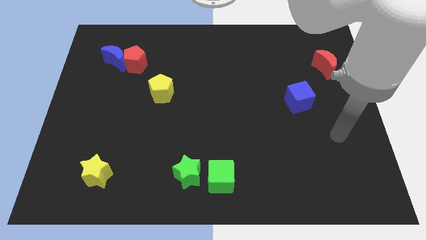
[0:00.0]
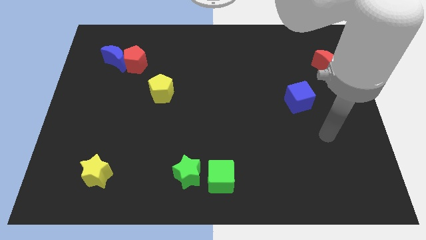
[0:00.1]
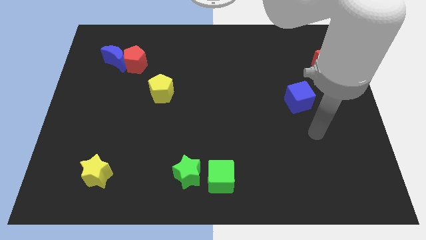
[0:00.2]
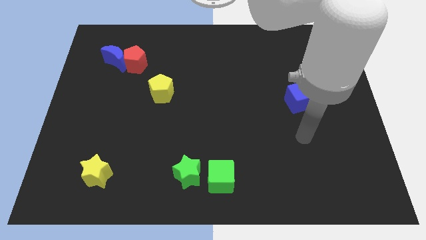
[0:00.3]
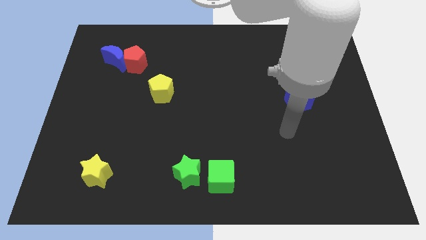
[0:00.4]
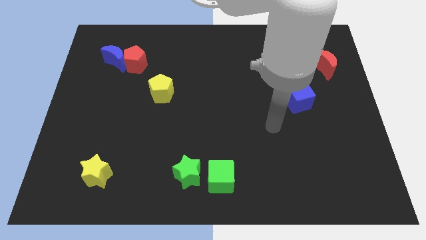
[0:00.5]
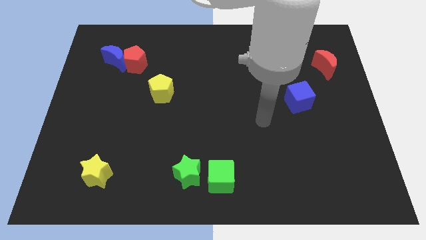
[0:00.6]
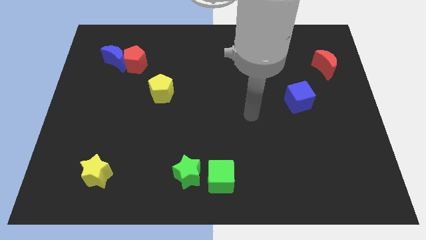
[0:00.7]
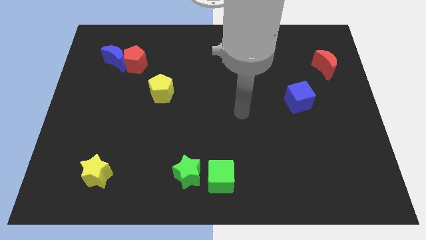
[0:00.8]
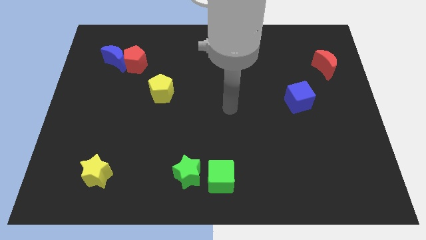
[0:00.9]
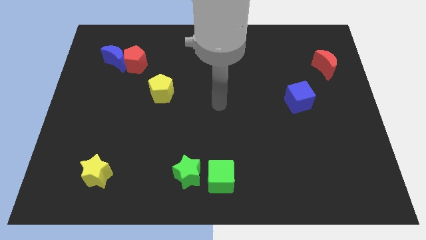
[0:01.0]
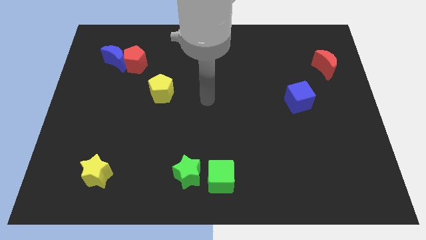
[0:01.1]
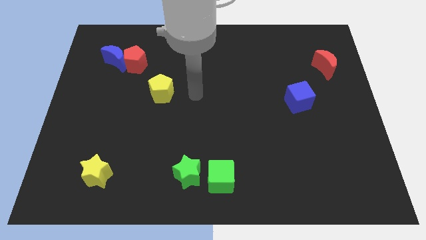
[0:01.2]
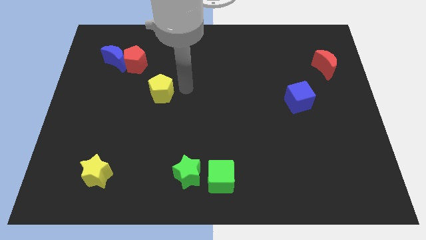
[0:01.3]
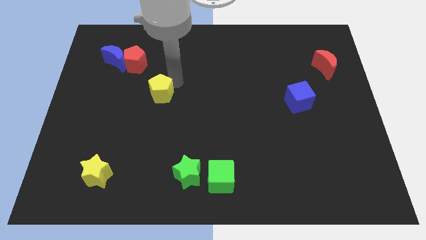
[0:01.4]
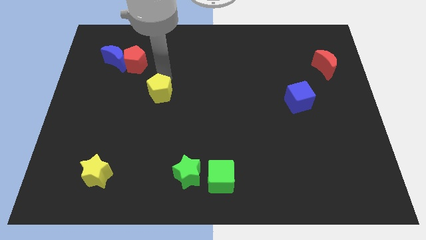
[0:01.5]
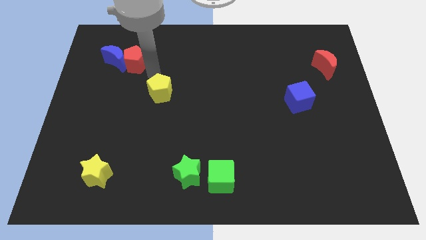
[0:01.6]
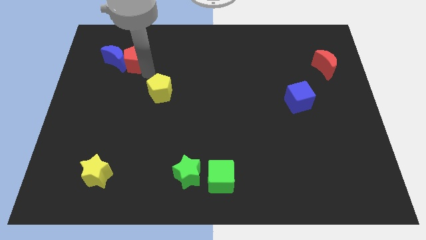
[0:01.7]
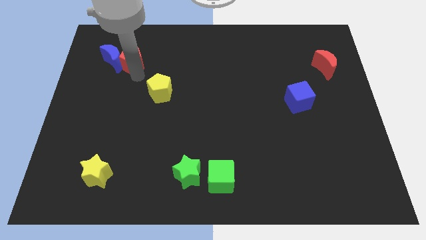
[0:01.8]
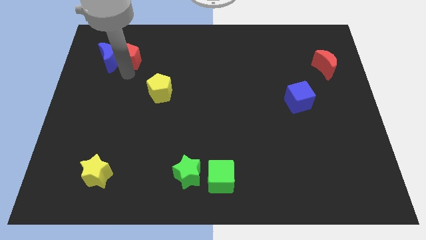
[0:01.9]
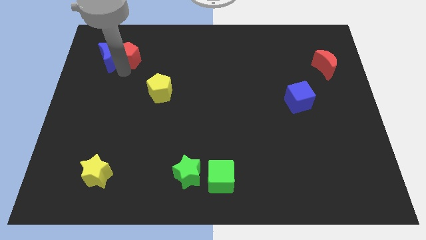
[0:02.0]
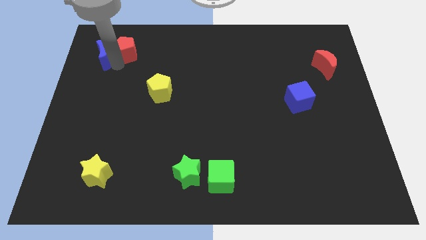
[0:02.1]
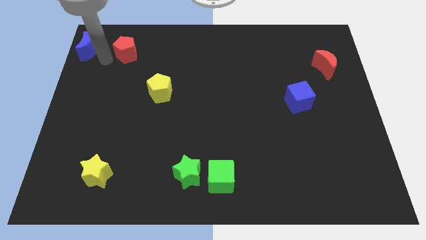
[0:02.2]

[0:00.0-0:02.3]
move the red pentagon away from the blue moon

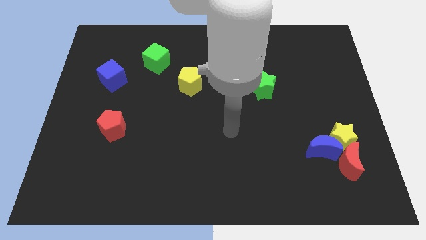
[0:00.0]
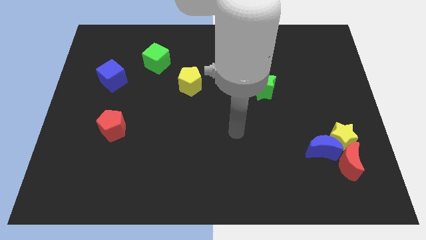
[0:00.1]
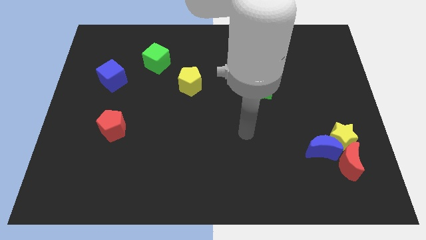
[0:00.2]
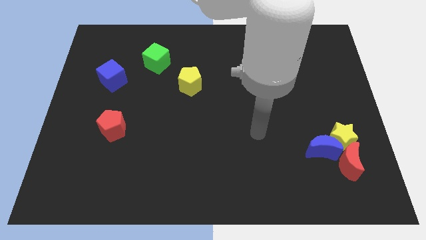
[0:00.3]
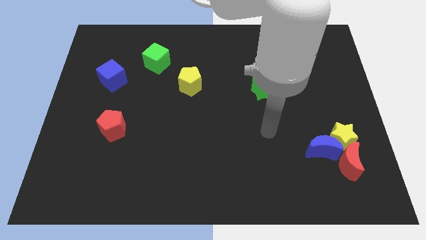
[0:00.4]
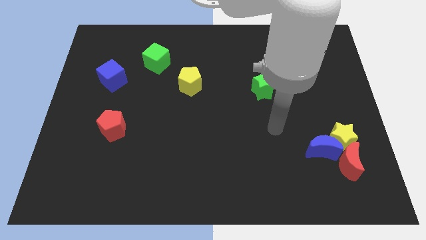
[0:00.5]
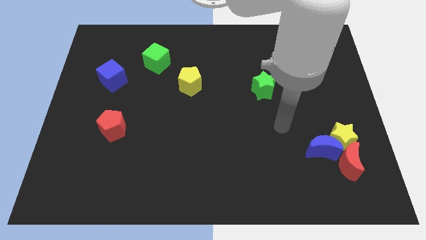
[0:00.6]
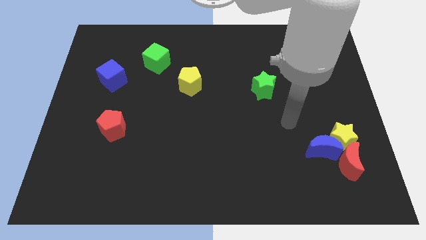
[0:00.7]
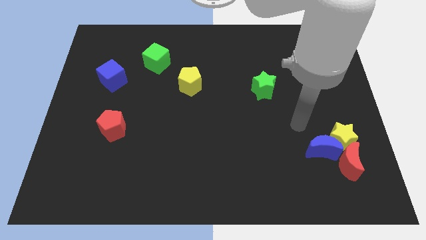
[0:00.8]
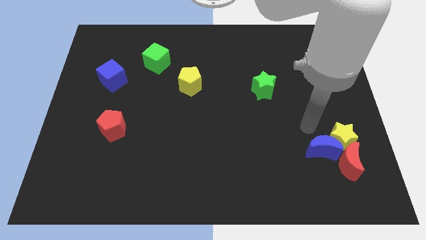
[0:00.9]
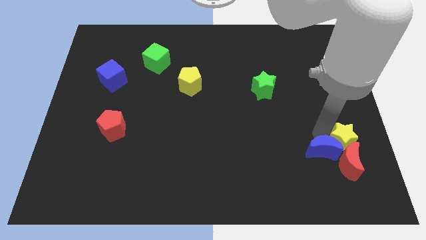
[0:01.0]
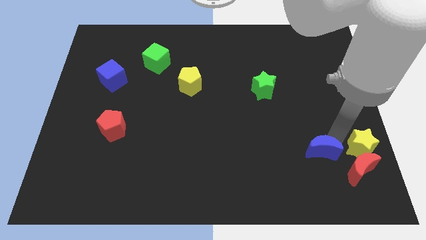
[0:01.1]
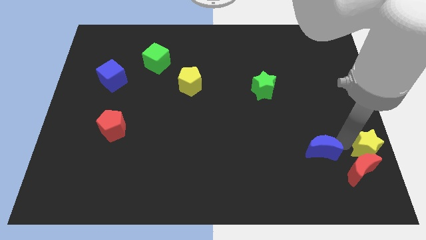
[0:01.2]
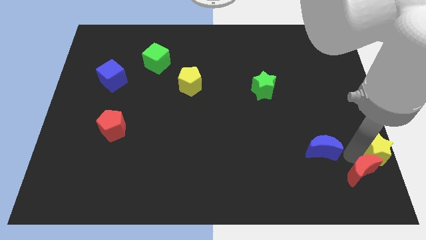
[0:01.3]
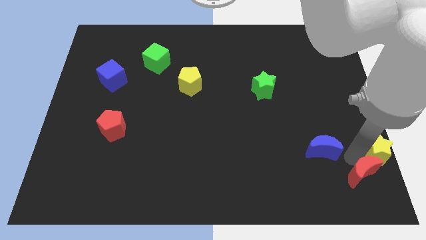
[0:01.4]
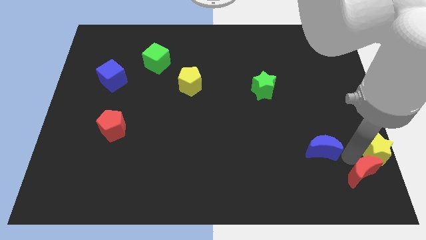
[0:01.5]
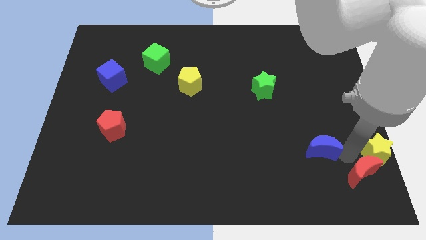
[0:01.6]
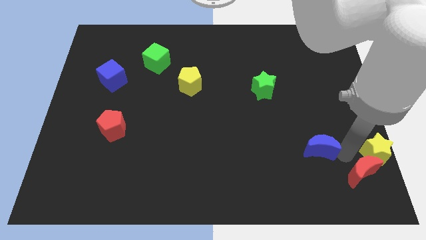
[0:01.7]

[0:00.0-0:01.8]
move the blue moon away from the yellow star and red moon

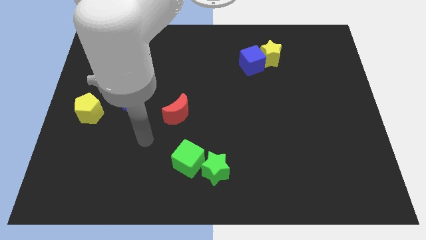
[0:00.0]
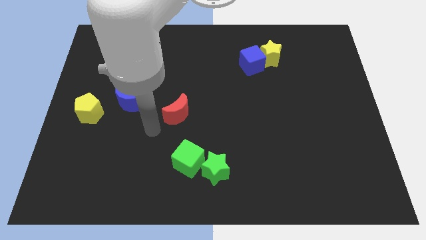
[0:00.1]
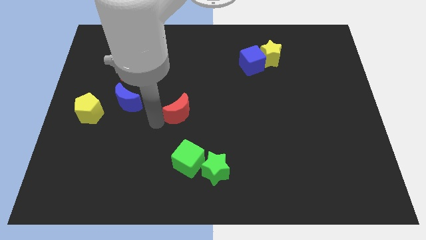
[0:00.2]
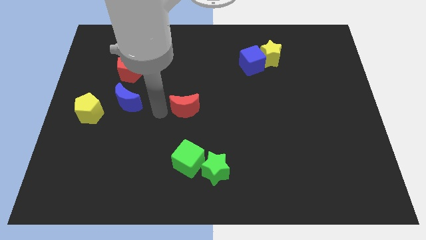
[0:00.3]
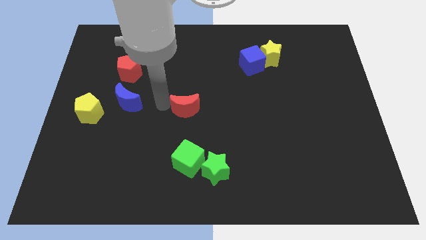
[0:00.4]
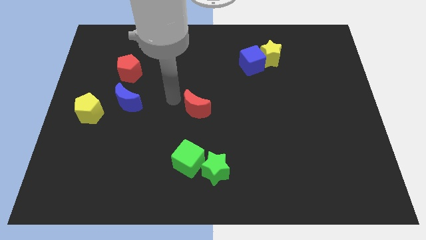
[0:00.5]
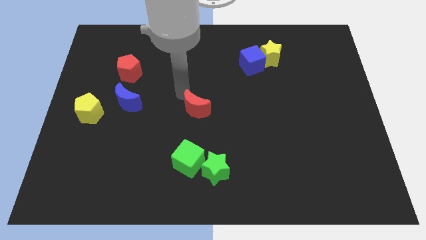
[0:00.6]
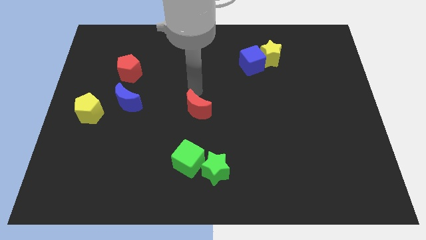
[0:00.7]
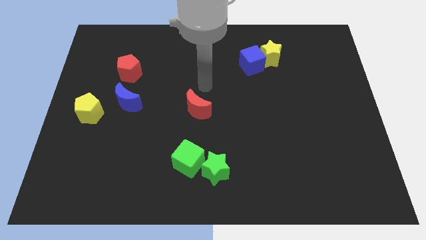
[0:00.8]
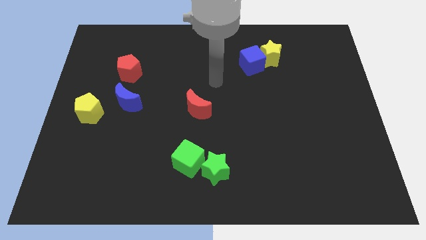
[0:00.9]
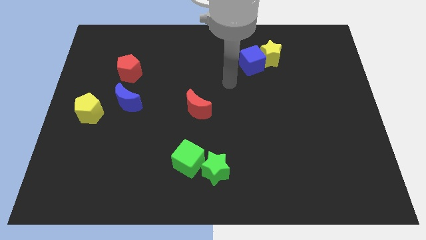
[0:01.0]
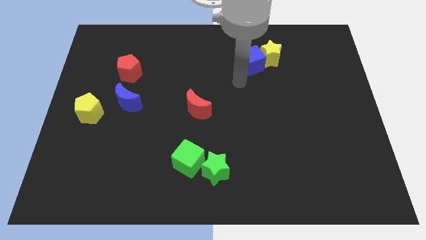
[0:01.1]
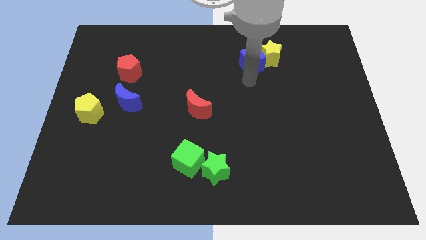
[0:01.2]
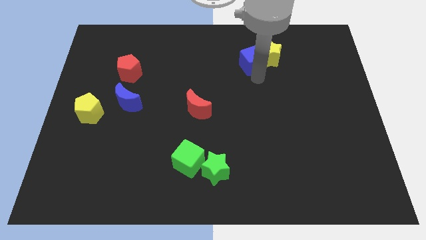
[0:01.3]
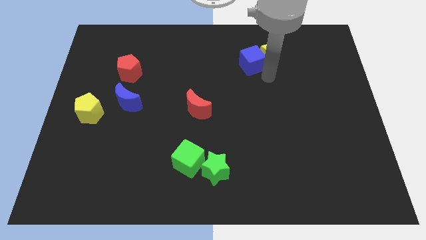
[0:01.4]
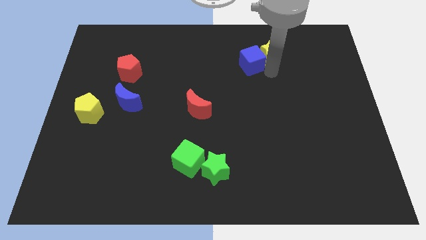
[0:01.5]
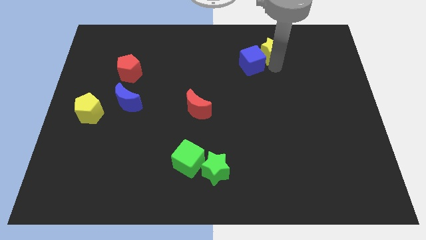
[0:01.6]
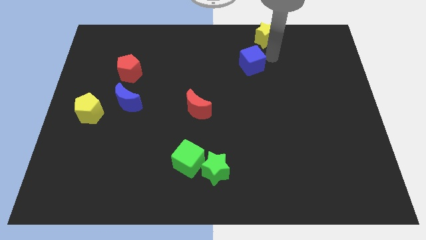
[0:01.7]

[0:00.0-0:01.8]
pull the blue cube apart from the yellow star

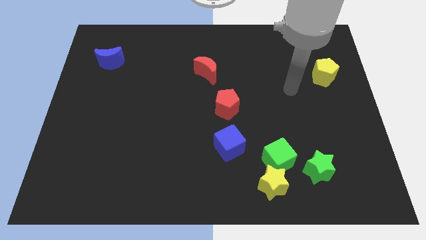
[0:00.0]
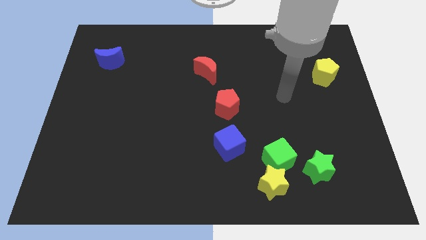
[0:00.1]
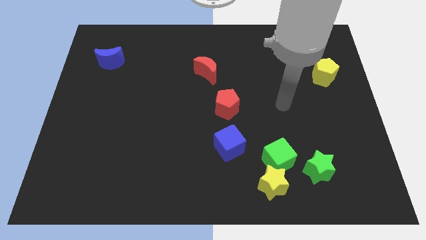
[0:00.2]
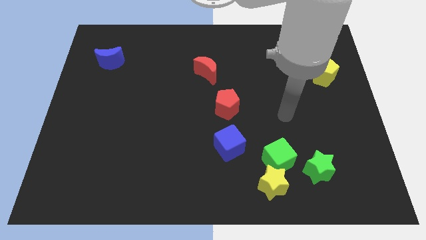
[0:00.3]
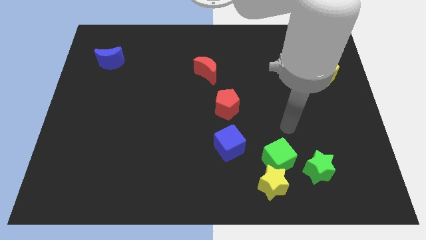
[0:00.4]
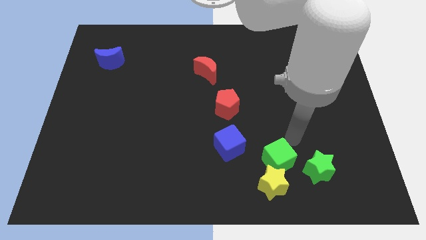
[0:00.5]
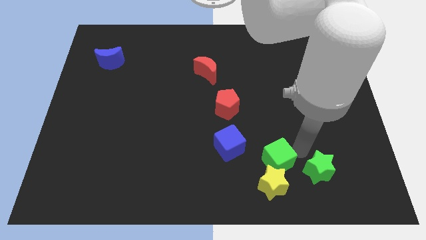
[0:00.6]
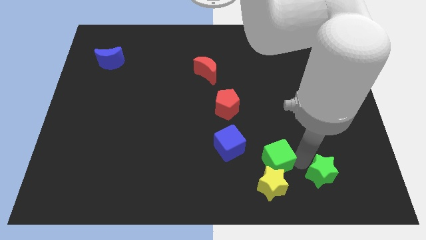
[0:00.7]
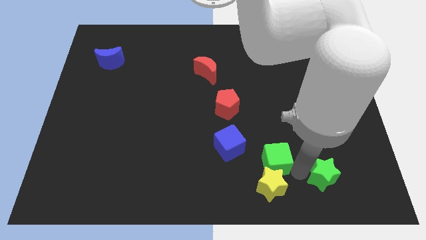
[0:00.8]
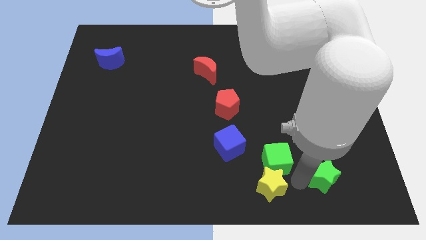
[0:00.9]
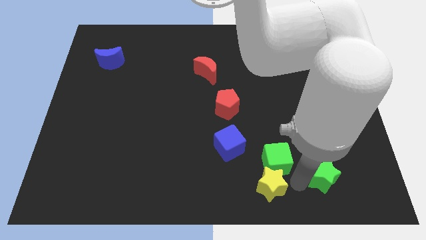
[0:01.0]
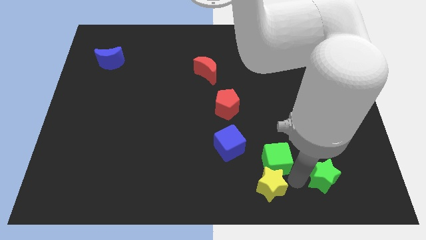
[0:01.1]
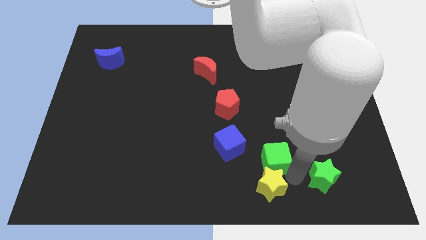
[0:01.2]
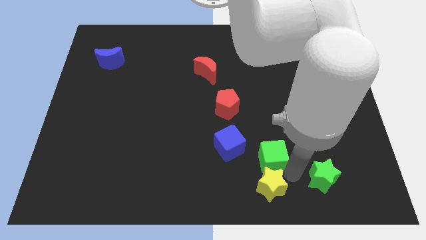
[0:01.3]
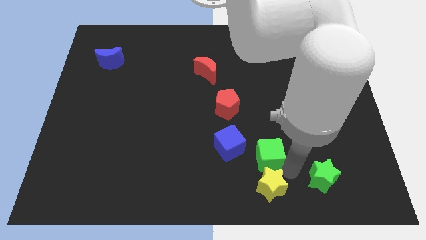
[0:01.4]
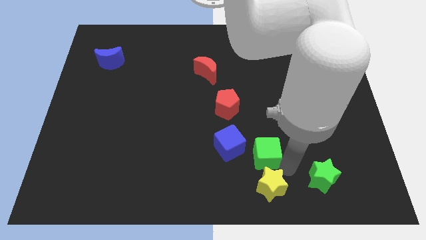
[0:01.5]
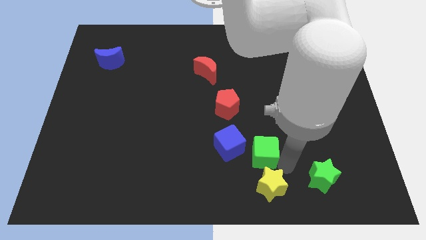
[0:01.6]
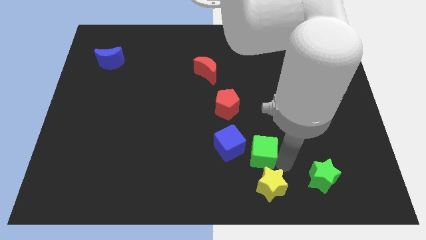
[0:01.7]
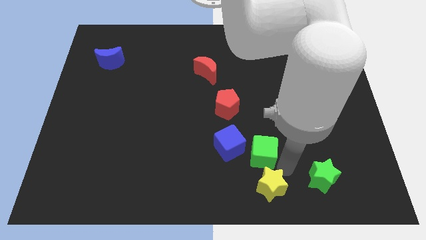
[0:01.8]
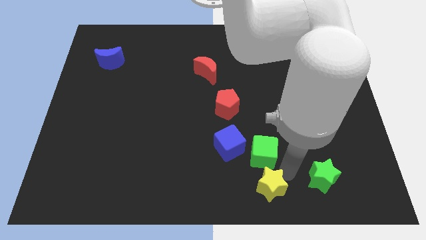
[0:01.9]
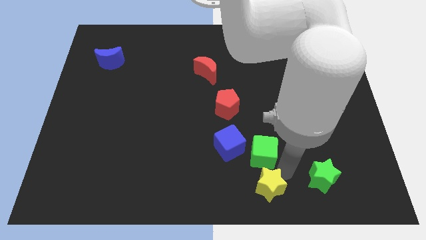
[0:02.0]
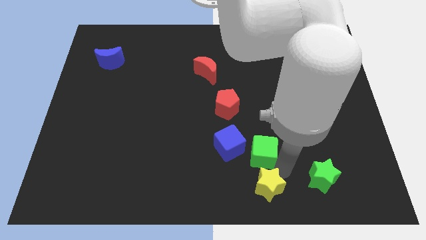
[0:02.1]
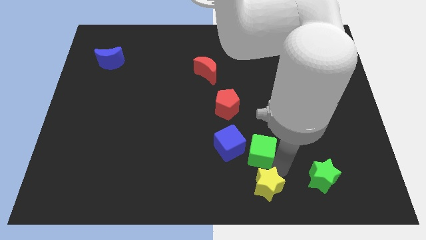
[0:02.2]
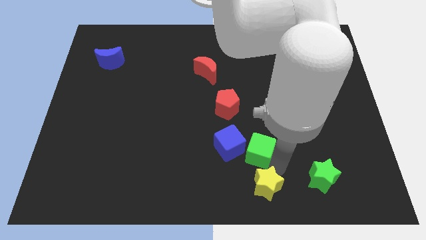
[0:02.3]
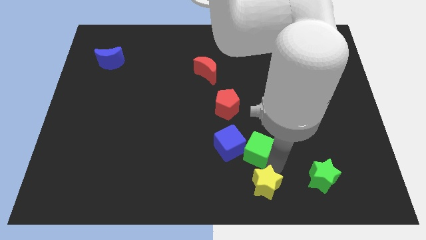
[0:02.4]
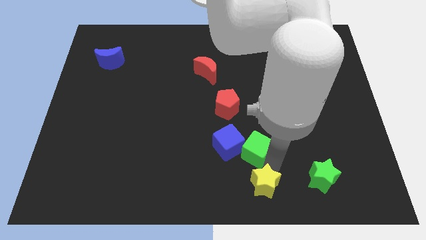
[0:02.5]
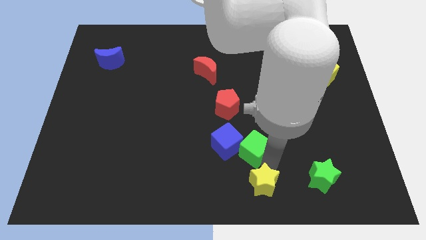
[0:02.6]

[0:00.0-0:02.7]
pull the green cube apart from the yellow star and green star

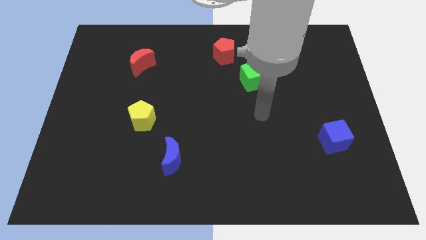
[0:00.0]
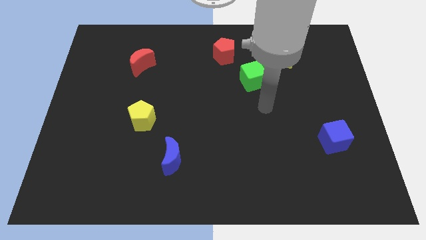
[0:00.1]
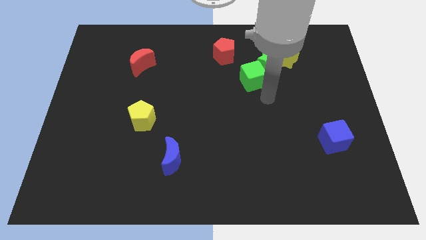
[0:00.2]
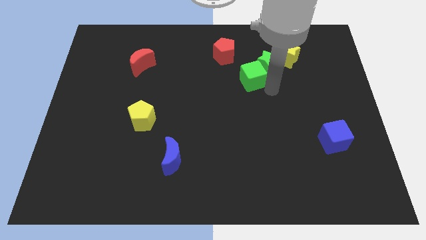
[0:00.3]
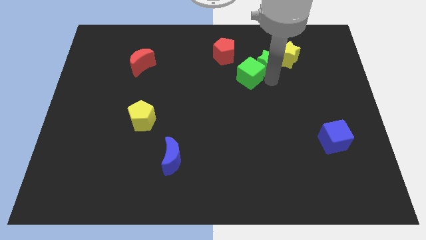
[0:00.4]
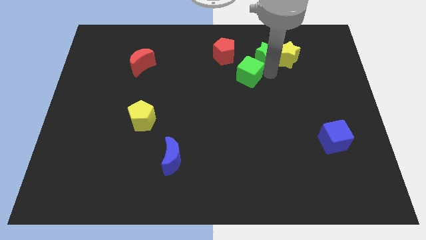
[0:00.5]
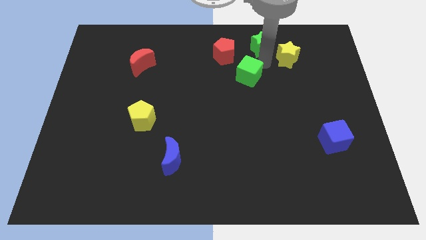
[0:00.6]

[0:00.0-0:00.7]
separate the green cube from the green star
